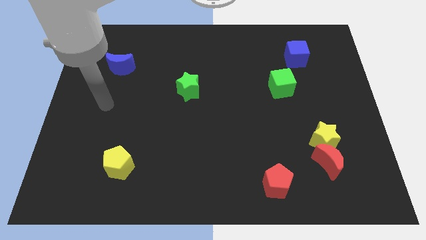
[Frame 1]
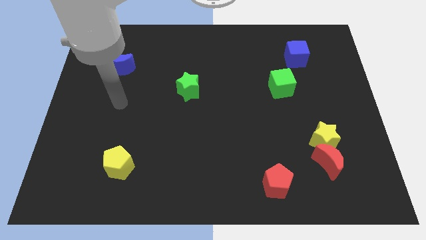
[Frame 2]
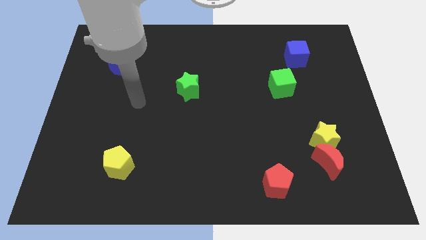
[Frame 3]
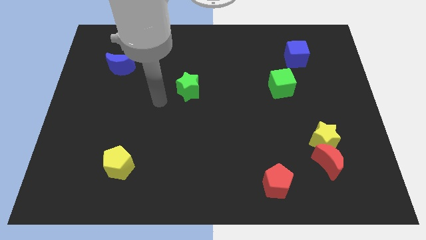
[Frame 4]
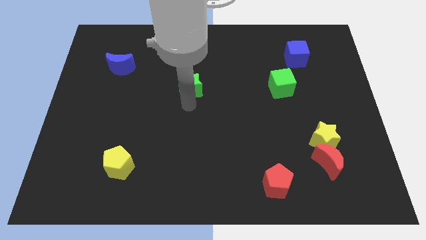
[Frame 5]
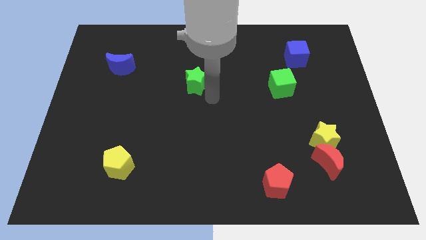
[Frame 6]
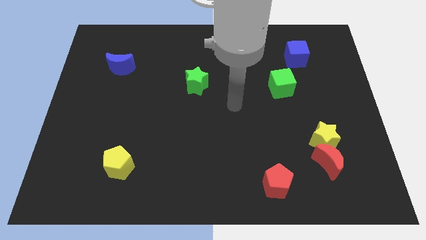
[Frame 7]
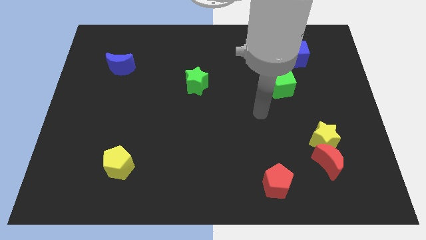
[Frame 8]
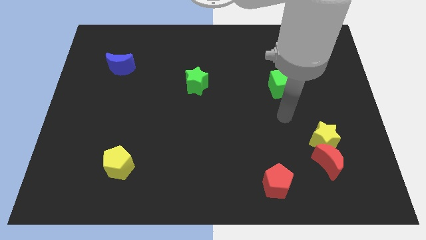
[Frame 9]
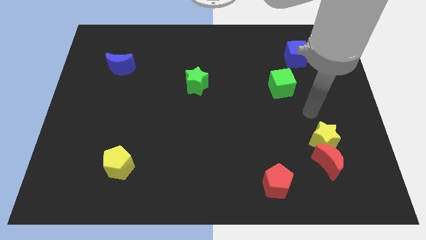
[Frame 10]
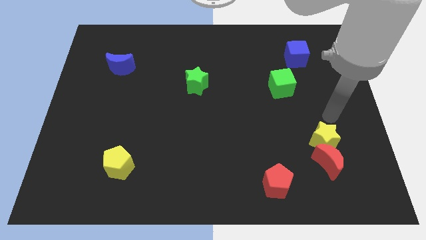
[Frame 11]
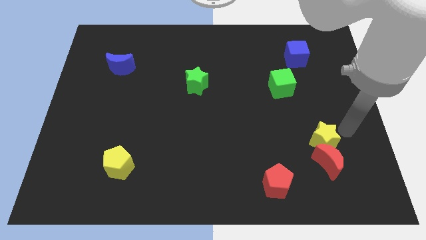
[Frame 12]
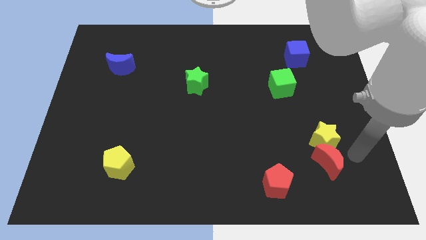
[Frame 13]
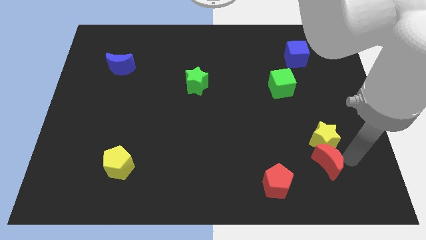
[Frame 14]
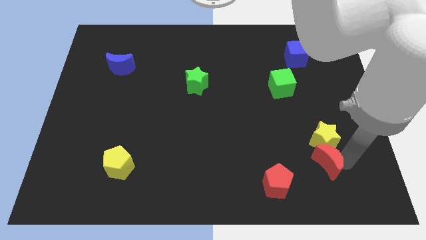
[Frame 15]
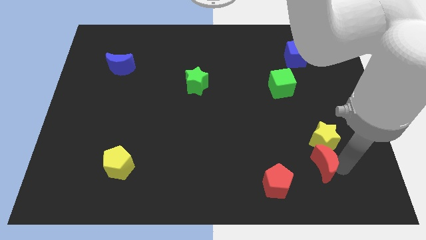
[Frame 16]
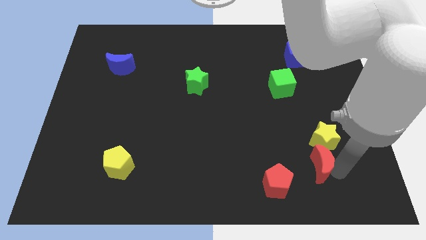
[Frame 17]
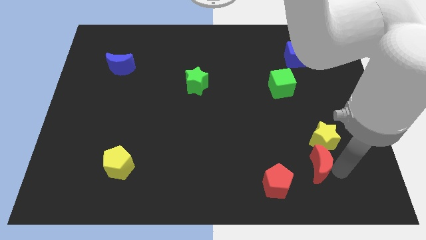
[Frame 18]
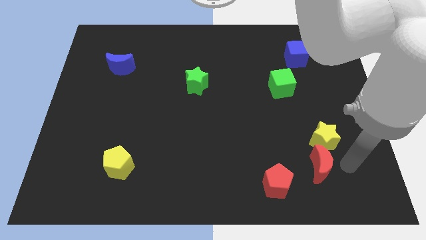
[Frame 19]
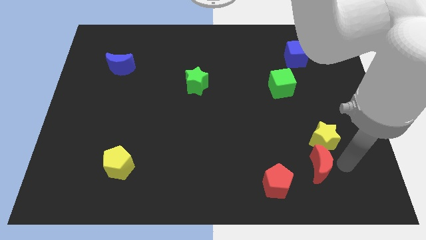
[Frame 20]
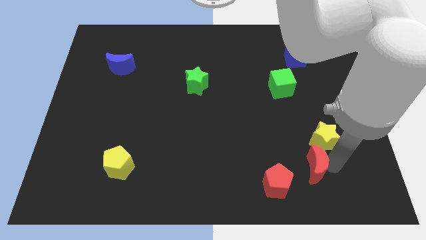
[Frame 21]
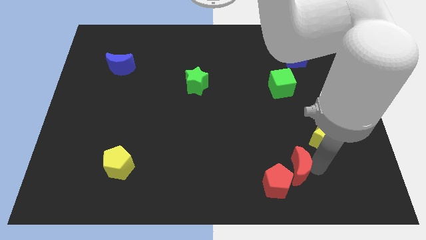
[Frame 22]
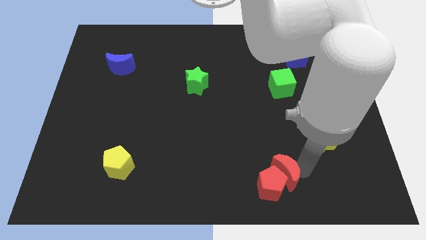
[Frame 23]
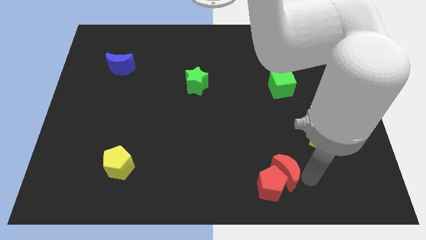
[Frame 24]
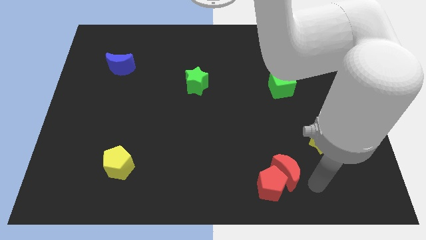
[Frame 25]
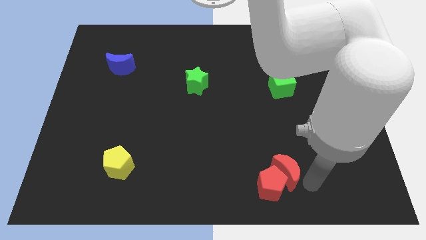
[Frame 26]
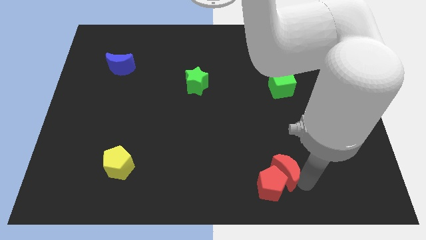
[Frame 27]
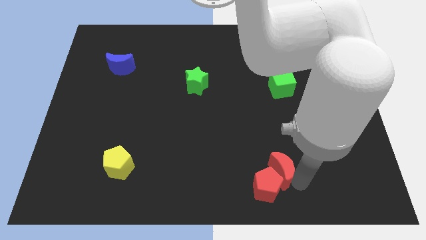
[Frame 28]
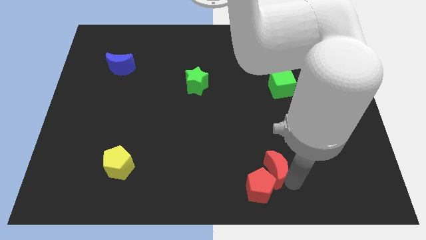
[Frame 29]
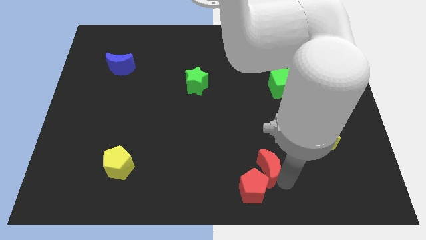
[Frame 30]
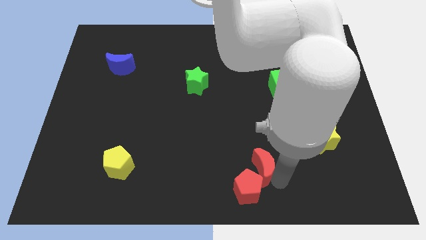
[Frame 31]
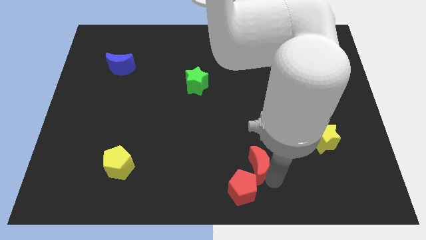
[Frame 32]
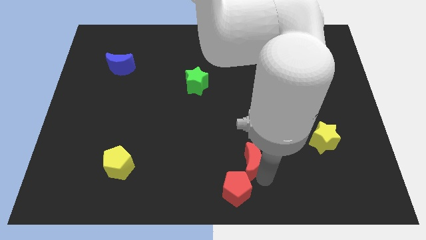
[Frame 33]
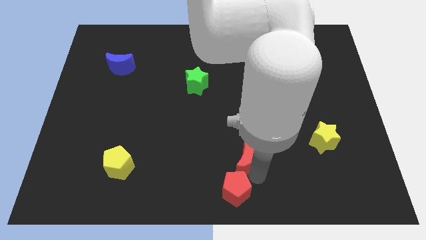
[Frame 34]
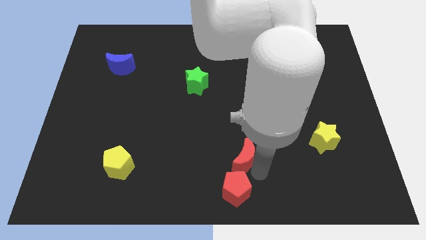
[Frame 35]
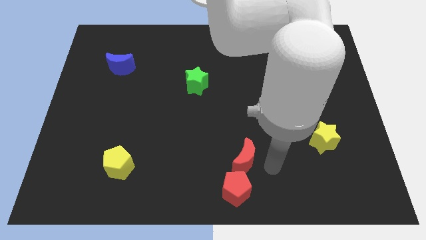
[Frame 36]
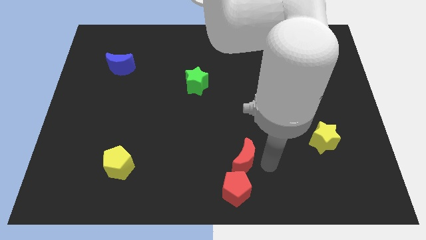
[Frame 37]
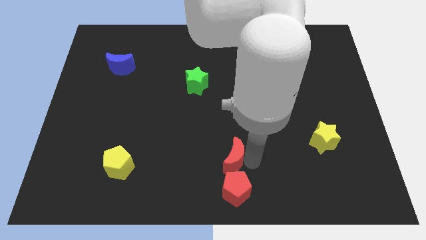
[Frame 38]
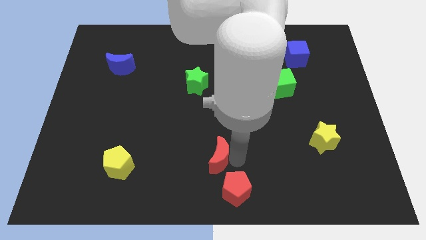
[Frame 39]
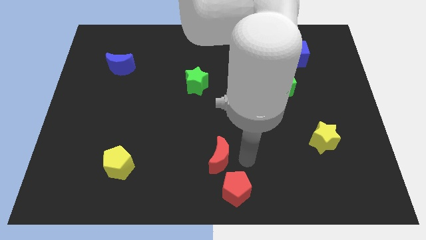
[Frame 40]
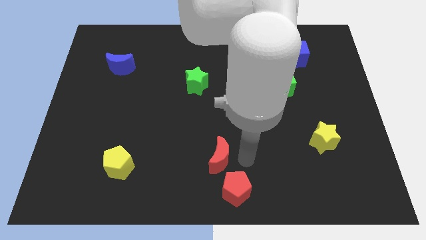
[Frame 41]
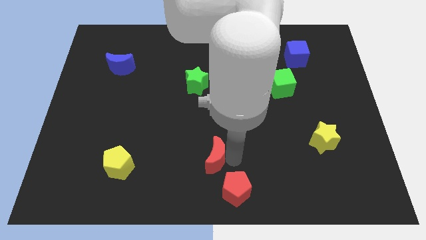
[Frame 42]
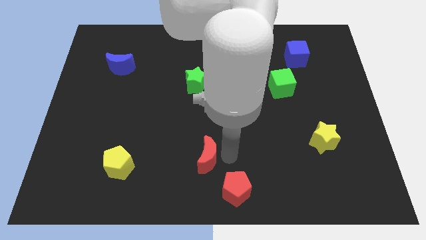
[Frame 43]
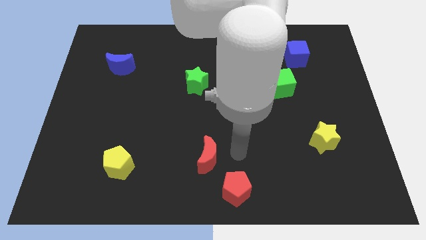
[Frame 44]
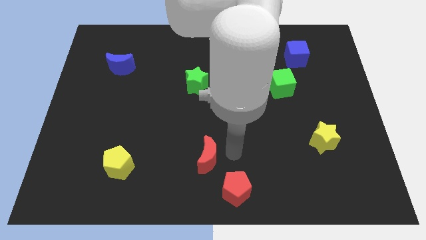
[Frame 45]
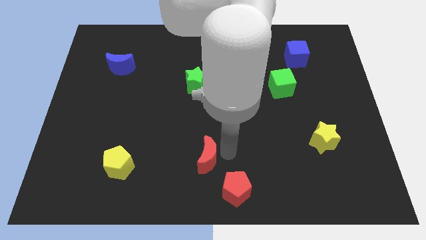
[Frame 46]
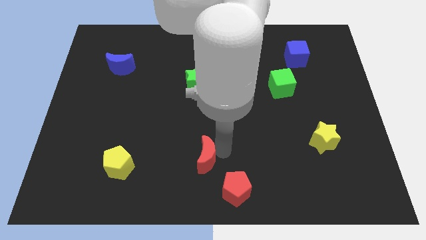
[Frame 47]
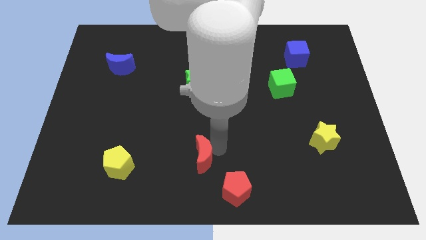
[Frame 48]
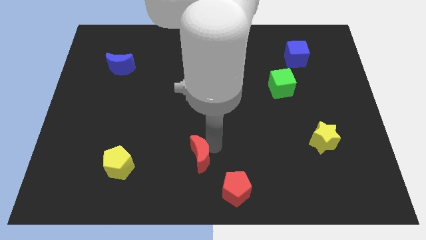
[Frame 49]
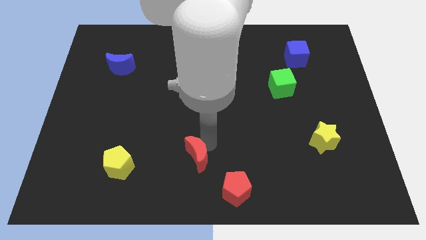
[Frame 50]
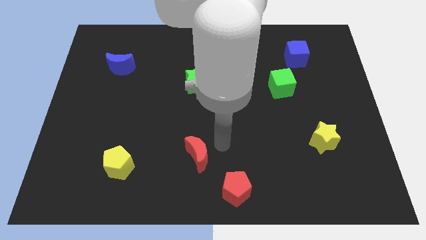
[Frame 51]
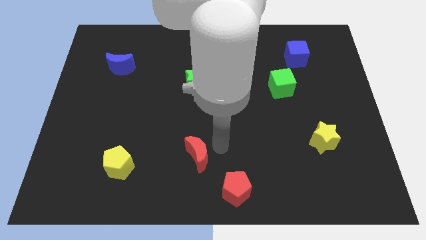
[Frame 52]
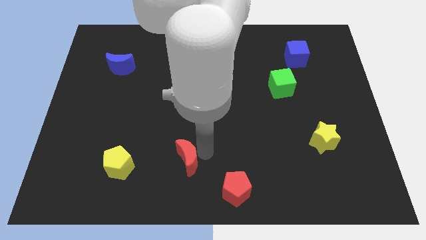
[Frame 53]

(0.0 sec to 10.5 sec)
move the red moon to the right of the yellow pentagon

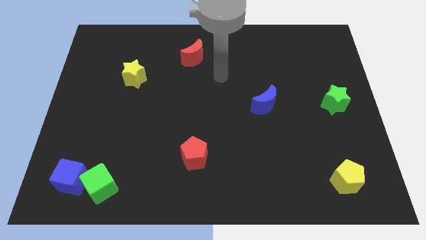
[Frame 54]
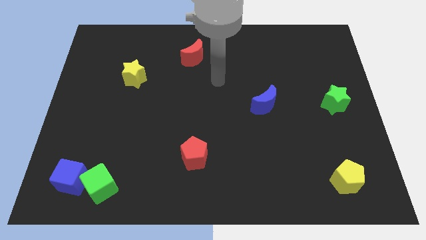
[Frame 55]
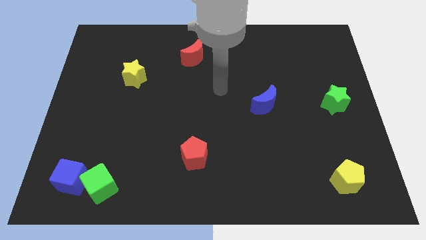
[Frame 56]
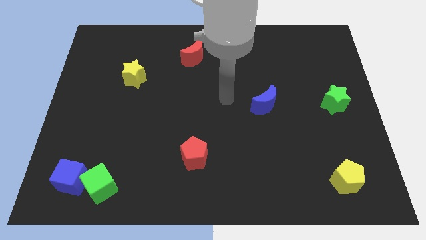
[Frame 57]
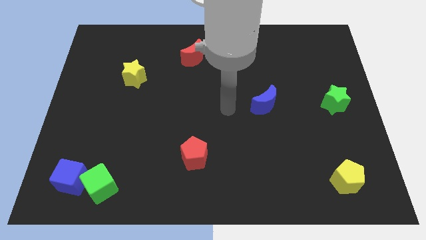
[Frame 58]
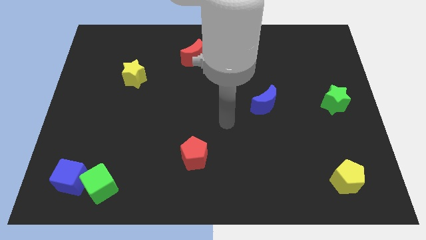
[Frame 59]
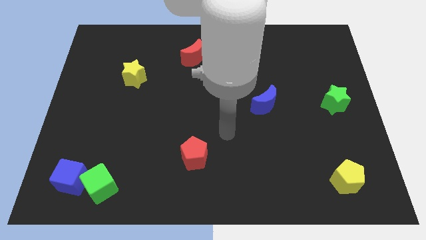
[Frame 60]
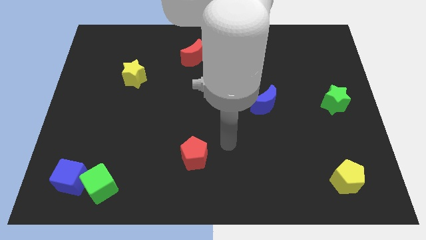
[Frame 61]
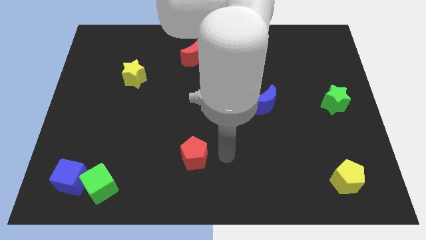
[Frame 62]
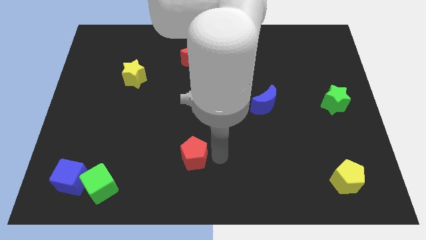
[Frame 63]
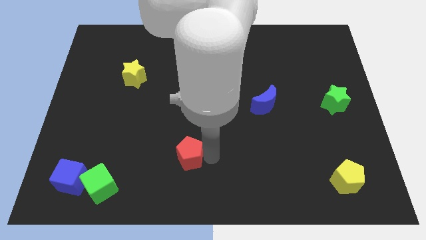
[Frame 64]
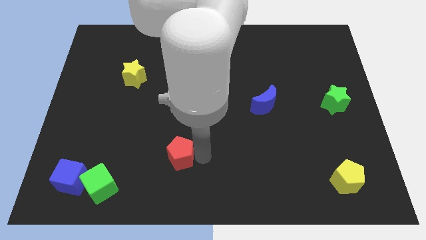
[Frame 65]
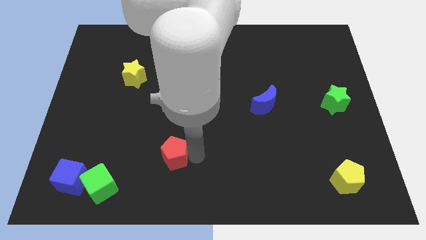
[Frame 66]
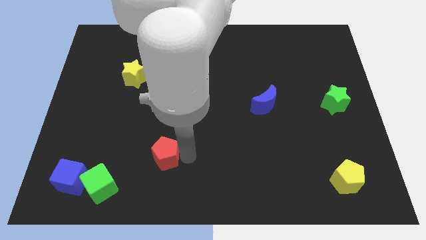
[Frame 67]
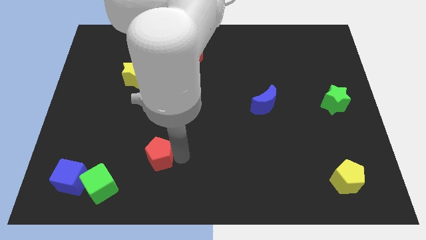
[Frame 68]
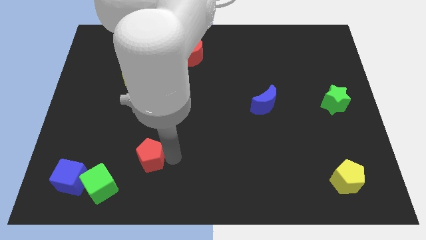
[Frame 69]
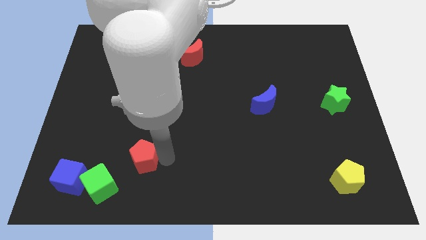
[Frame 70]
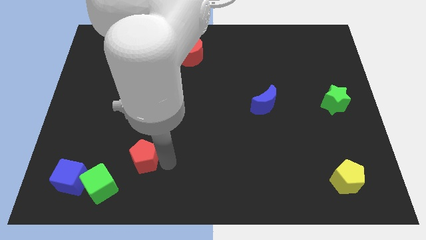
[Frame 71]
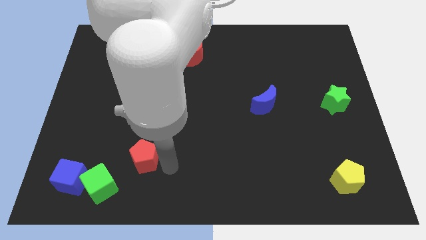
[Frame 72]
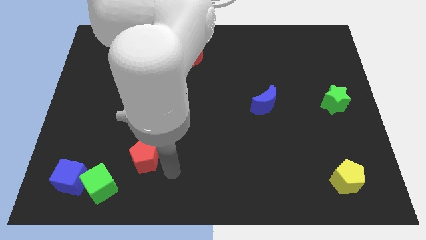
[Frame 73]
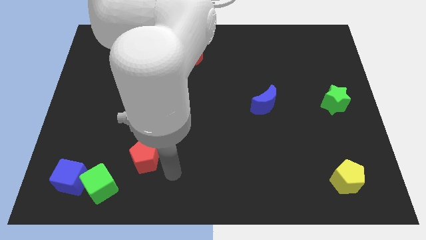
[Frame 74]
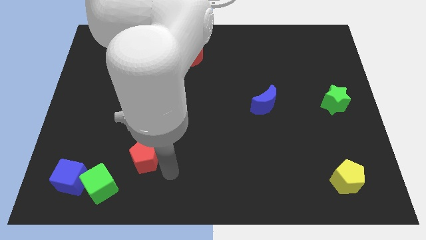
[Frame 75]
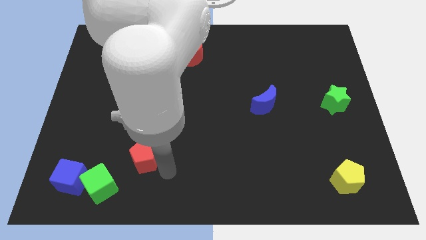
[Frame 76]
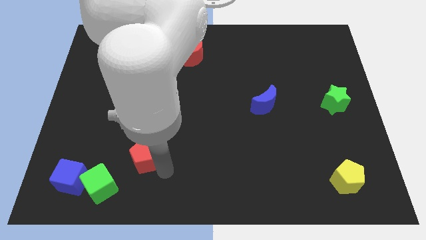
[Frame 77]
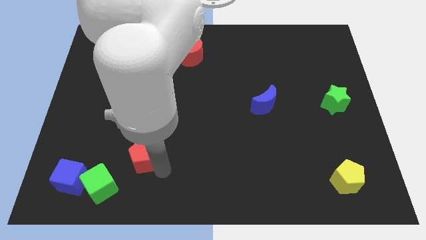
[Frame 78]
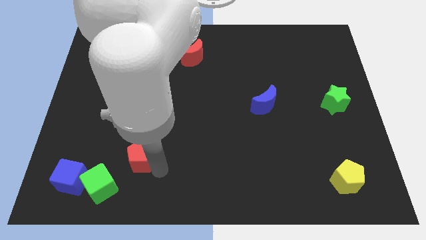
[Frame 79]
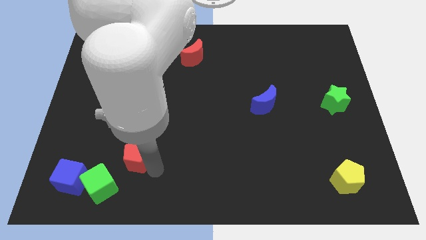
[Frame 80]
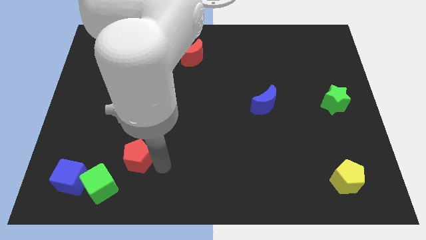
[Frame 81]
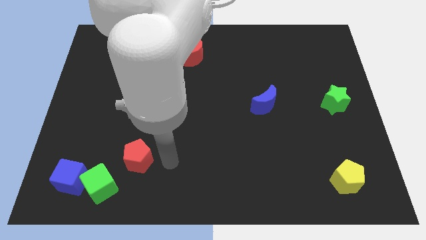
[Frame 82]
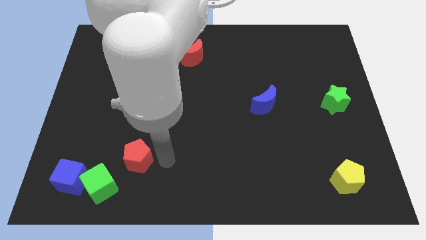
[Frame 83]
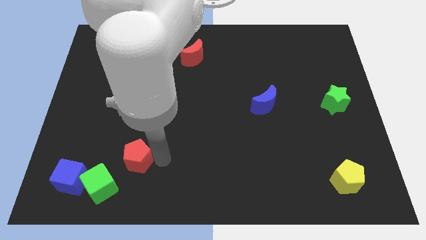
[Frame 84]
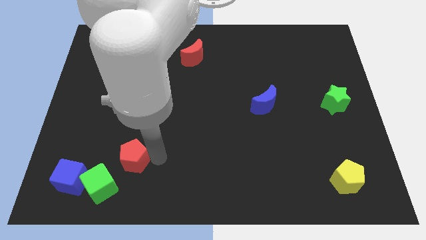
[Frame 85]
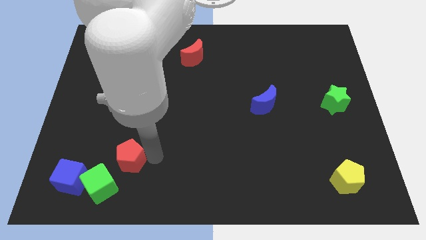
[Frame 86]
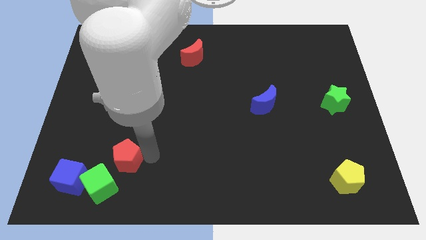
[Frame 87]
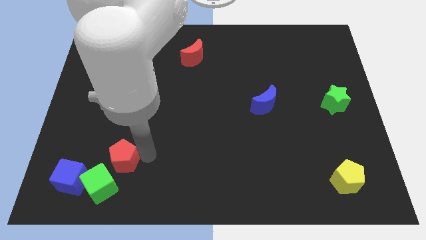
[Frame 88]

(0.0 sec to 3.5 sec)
push the red pentagon to the top right side of the blue cube
